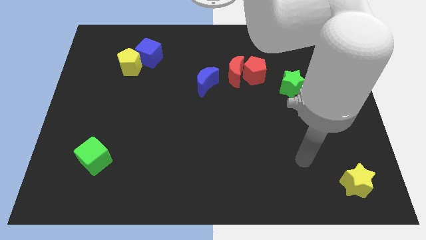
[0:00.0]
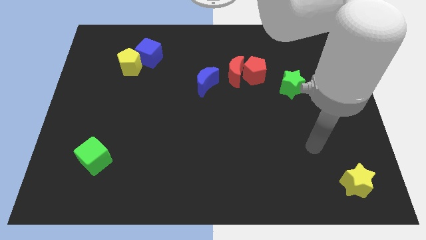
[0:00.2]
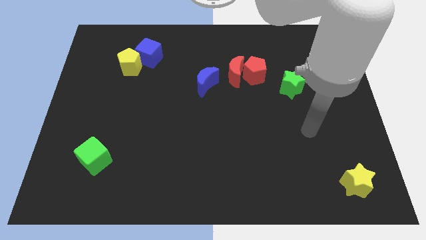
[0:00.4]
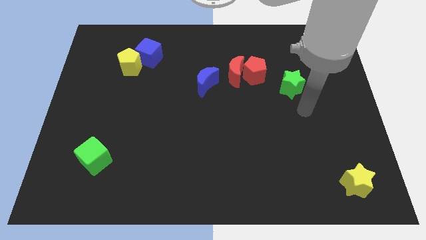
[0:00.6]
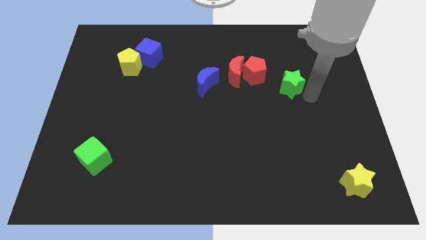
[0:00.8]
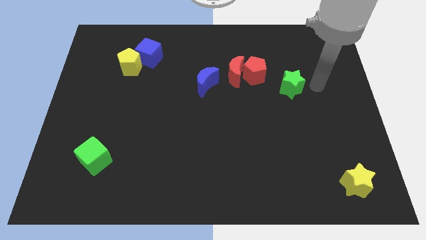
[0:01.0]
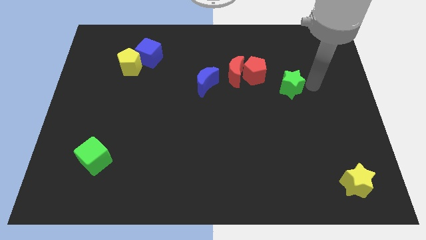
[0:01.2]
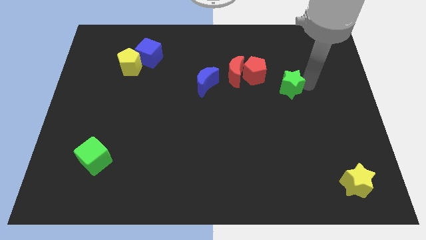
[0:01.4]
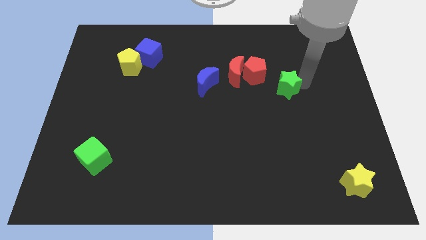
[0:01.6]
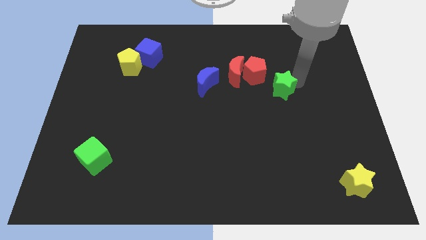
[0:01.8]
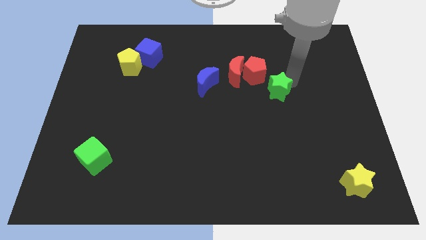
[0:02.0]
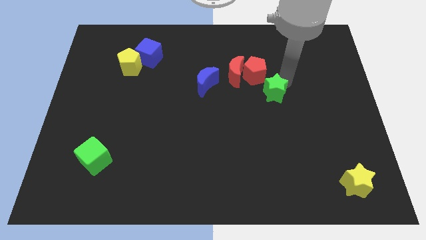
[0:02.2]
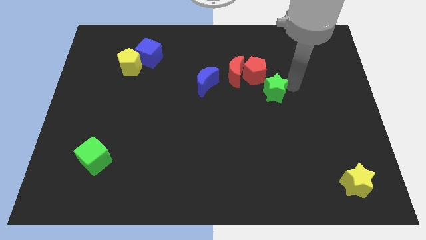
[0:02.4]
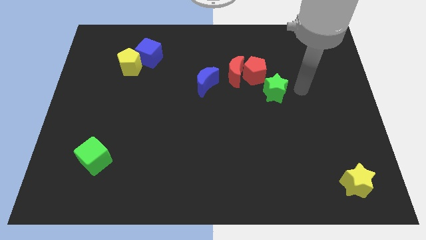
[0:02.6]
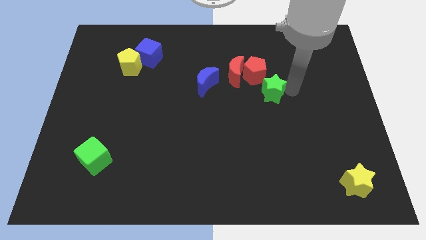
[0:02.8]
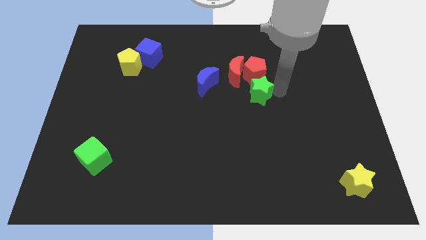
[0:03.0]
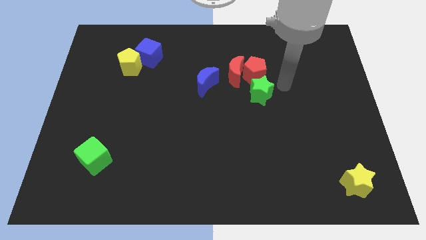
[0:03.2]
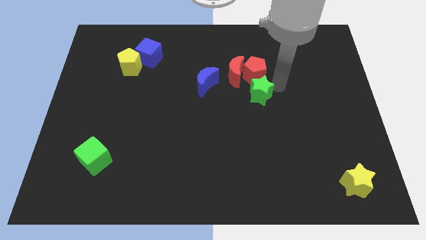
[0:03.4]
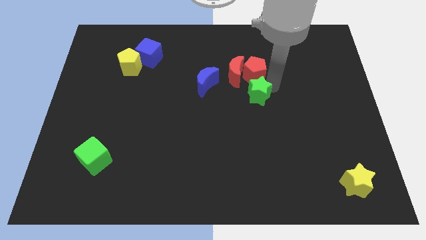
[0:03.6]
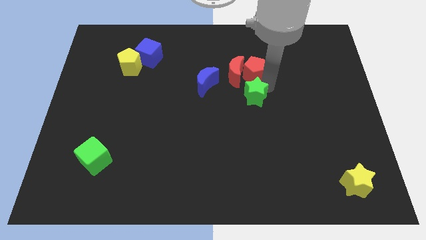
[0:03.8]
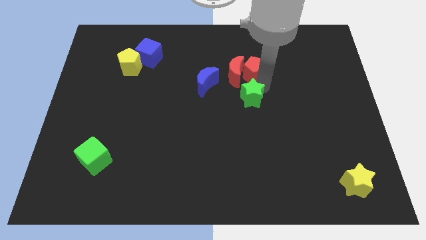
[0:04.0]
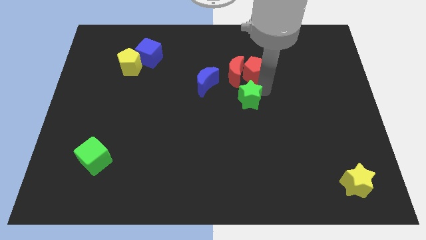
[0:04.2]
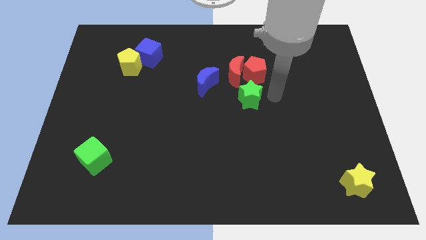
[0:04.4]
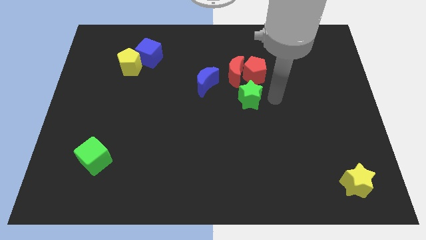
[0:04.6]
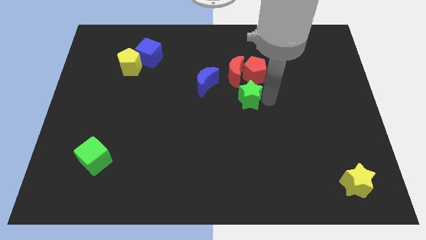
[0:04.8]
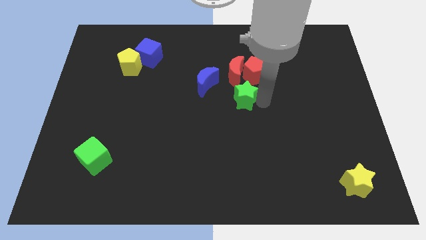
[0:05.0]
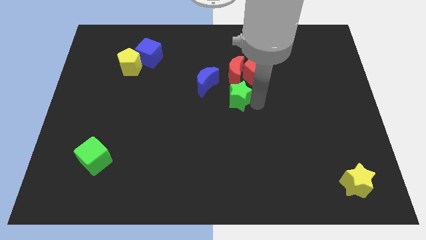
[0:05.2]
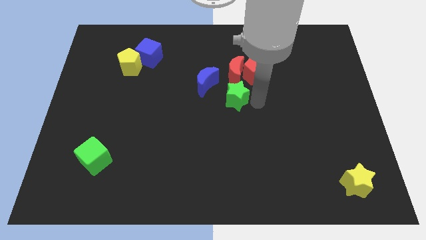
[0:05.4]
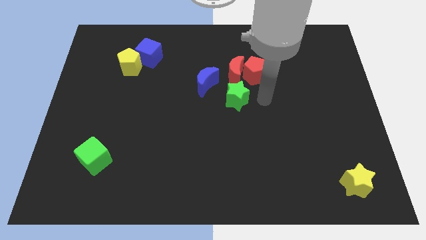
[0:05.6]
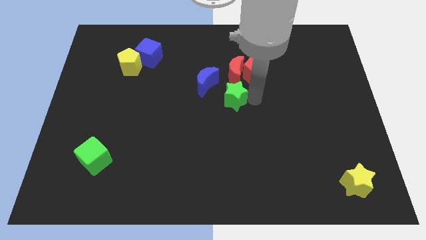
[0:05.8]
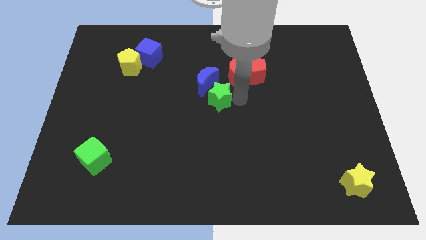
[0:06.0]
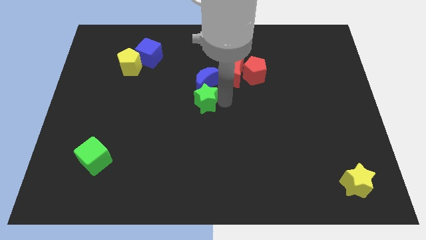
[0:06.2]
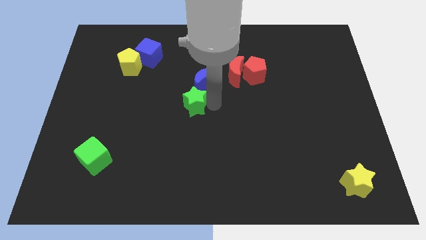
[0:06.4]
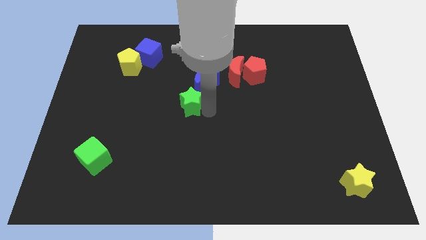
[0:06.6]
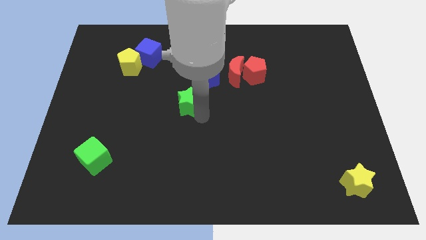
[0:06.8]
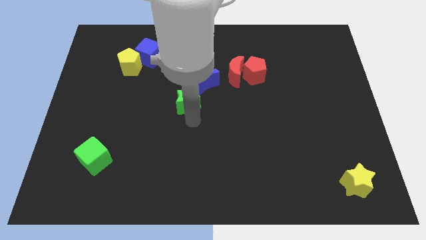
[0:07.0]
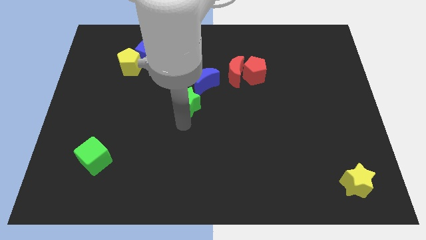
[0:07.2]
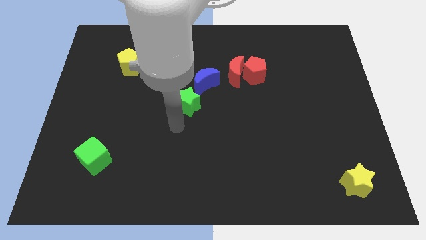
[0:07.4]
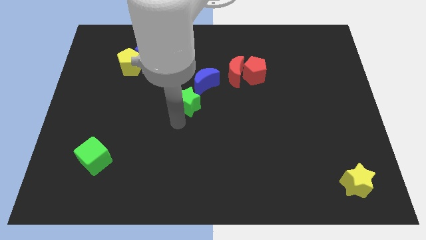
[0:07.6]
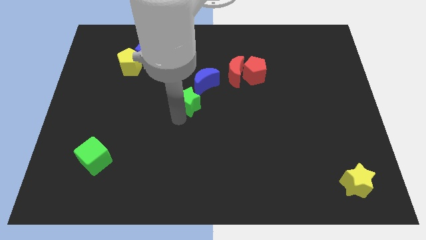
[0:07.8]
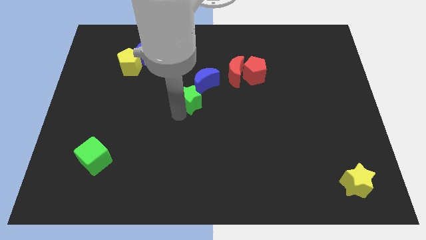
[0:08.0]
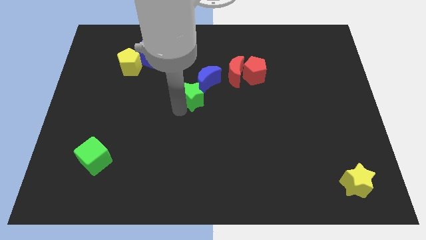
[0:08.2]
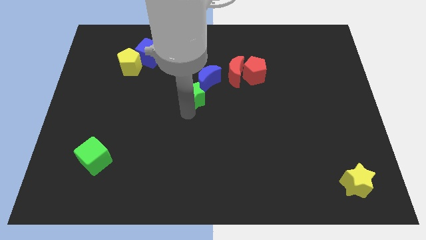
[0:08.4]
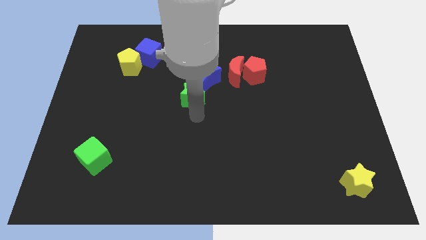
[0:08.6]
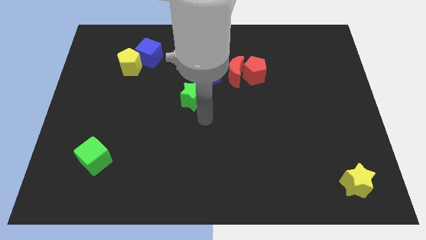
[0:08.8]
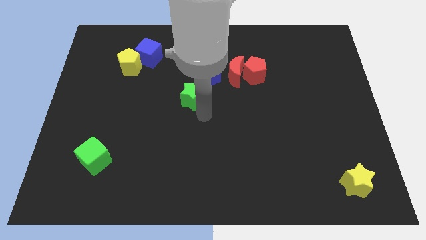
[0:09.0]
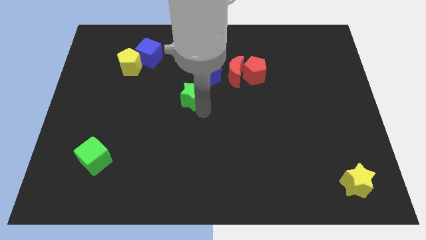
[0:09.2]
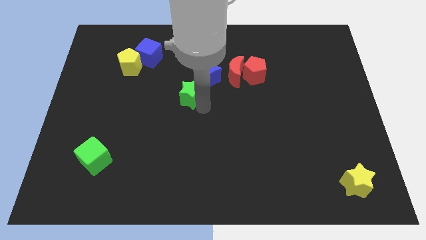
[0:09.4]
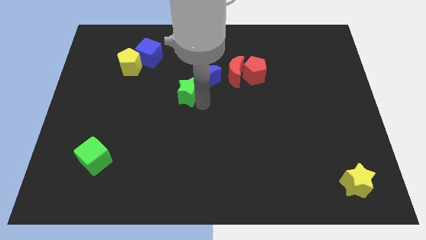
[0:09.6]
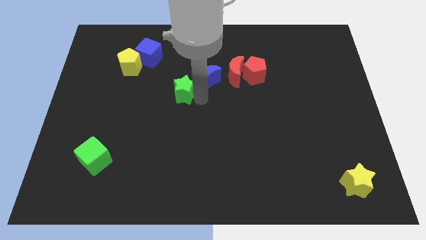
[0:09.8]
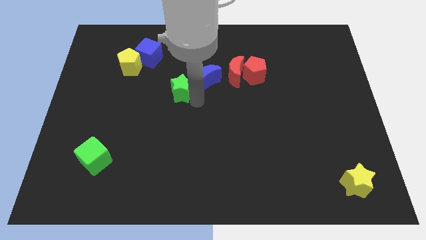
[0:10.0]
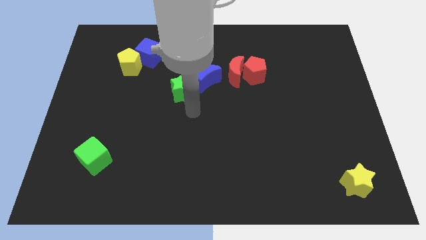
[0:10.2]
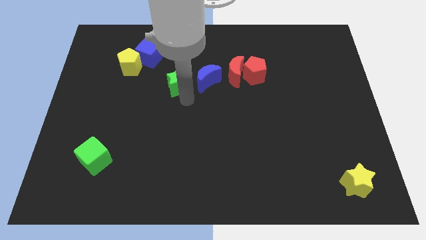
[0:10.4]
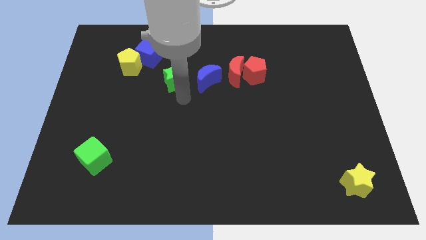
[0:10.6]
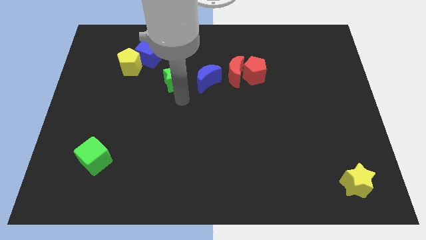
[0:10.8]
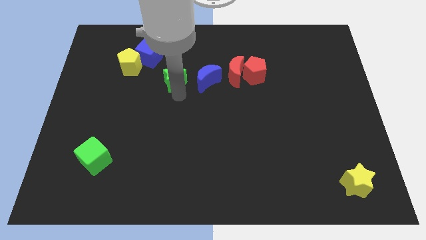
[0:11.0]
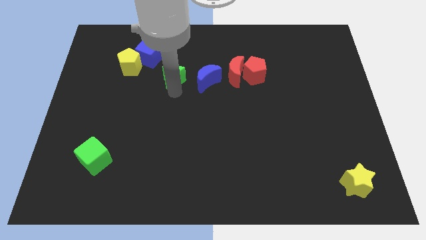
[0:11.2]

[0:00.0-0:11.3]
slide the green star just right of the yellow pentagon

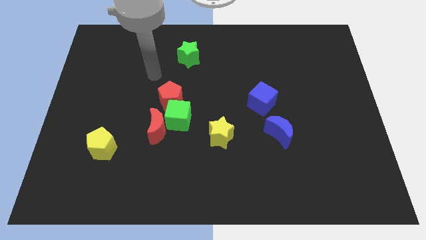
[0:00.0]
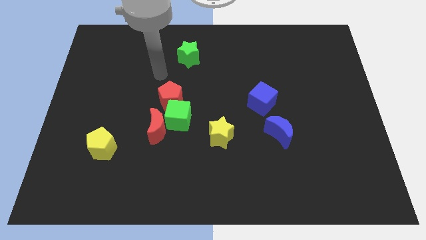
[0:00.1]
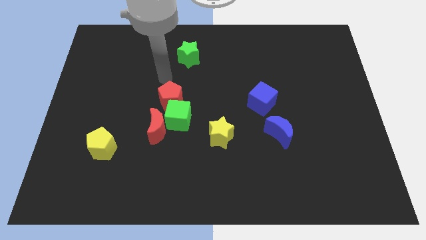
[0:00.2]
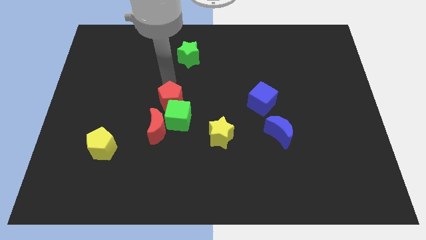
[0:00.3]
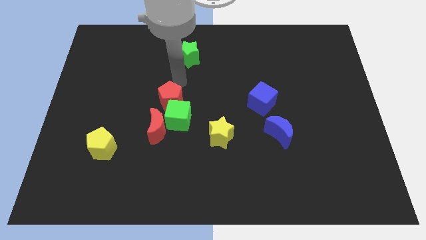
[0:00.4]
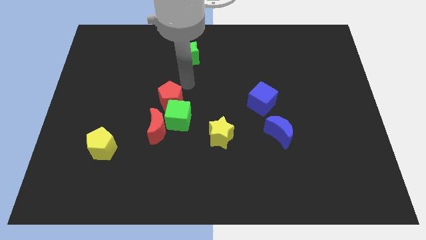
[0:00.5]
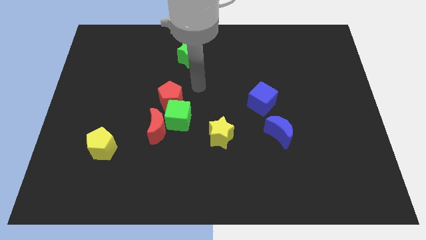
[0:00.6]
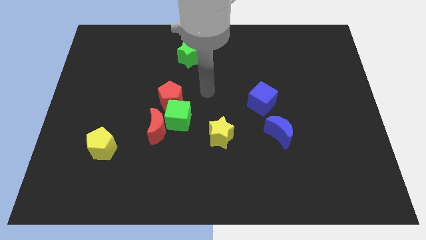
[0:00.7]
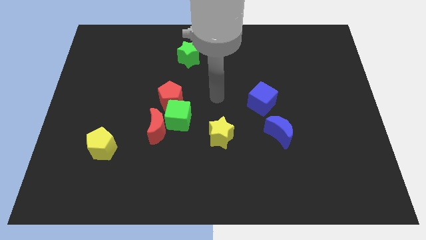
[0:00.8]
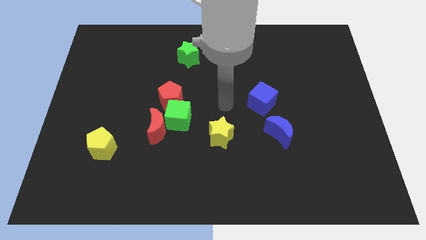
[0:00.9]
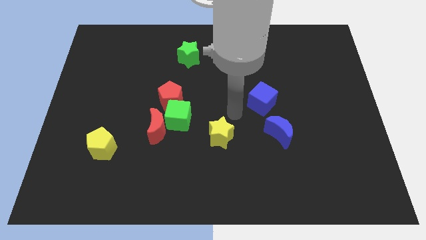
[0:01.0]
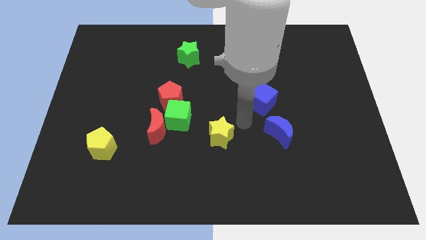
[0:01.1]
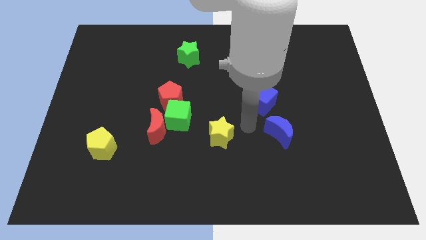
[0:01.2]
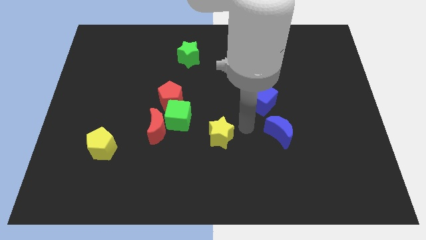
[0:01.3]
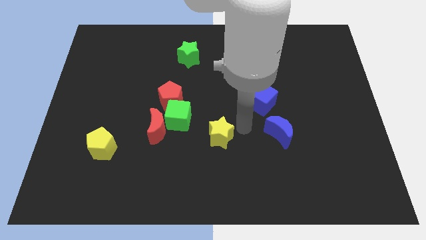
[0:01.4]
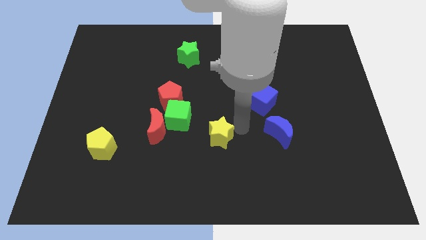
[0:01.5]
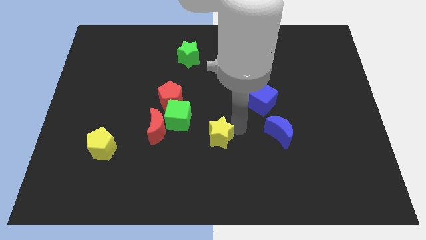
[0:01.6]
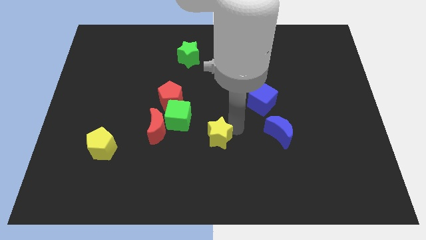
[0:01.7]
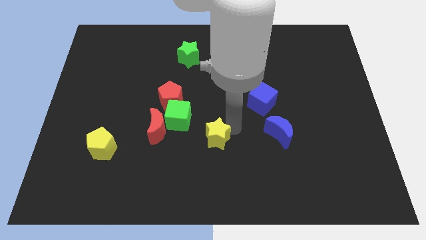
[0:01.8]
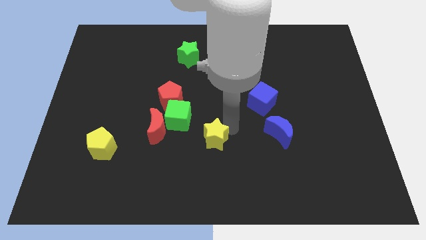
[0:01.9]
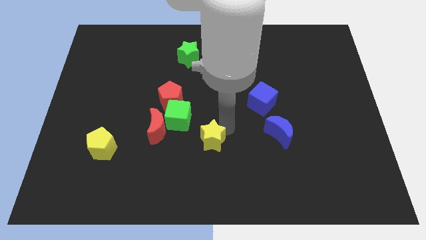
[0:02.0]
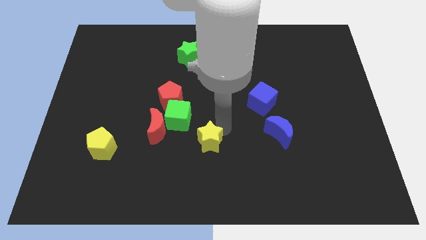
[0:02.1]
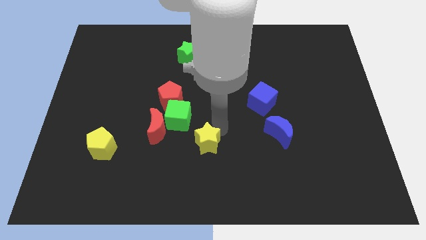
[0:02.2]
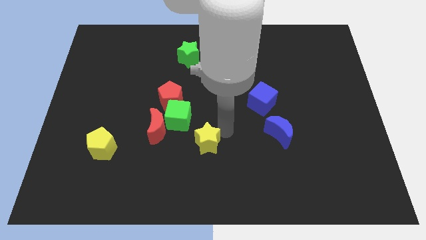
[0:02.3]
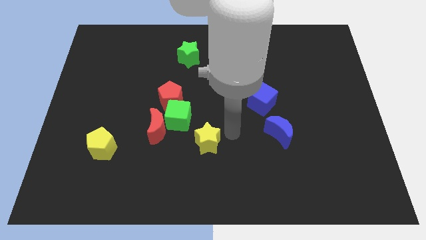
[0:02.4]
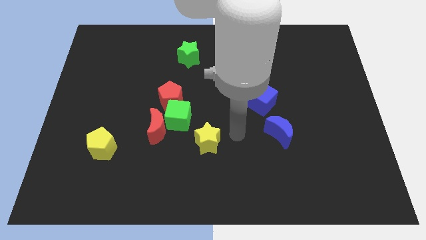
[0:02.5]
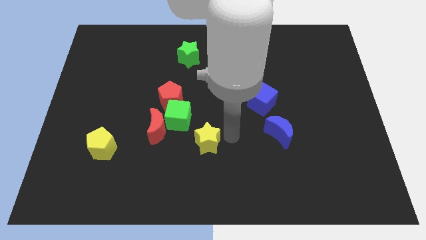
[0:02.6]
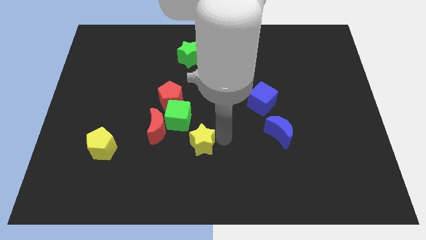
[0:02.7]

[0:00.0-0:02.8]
push the yellow star to the bottom right of the red moon
